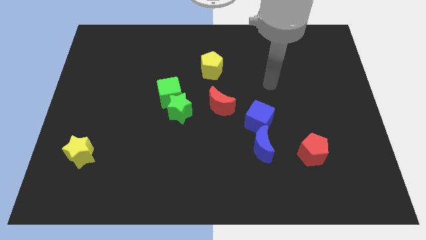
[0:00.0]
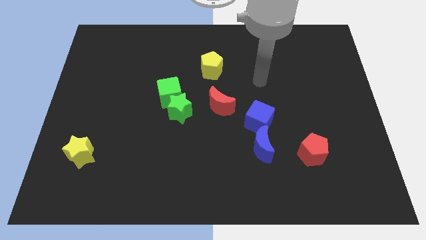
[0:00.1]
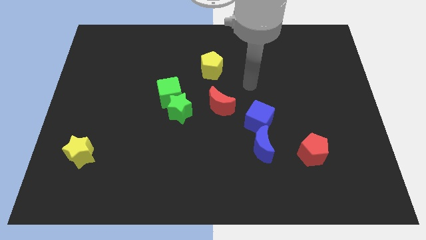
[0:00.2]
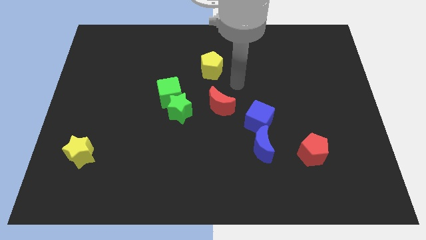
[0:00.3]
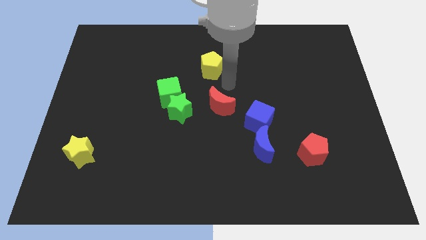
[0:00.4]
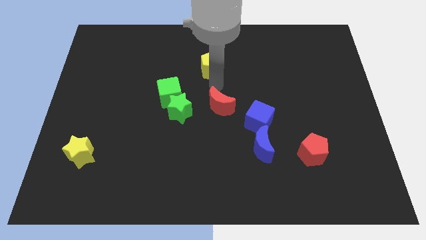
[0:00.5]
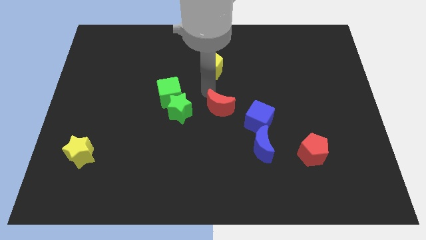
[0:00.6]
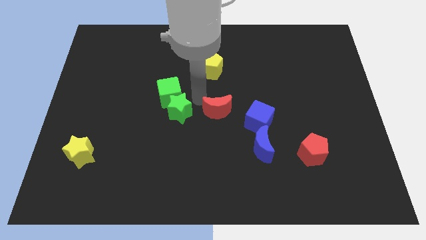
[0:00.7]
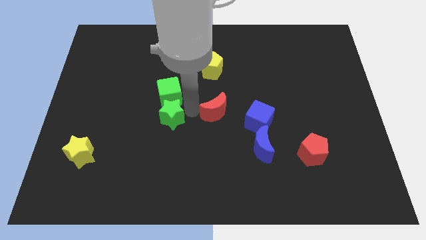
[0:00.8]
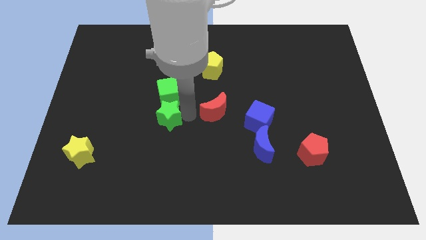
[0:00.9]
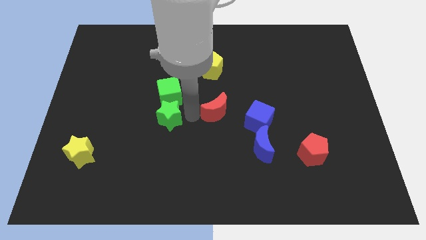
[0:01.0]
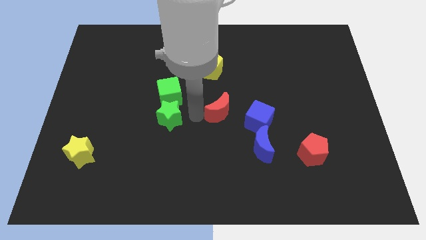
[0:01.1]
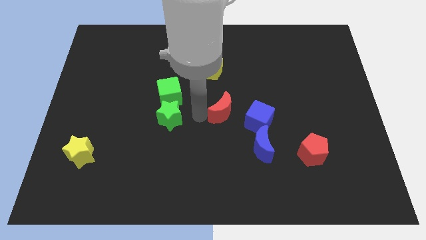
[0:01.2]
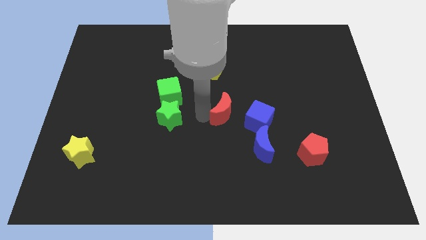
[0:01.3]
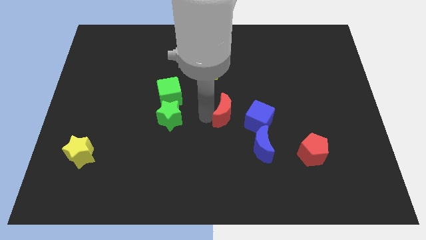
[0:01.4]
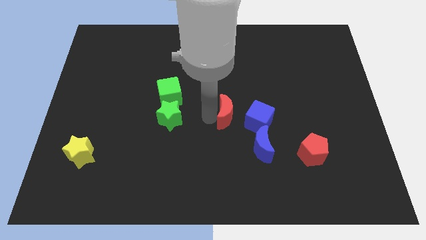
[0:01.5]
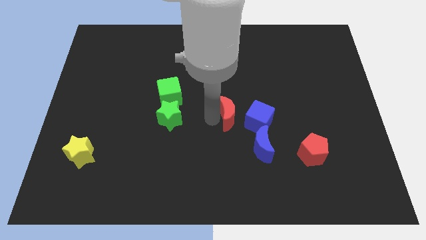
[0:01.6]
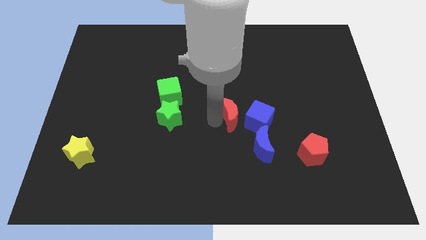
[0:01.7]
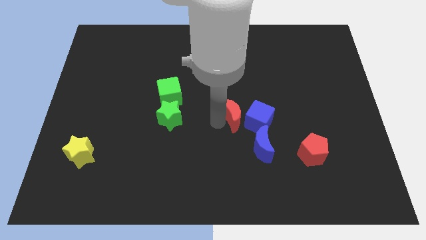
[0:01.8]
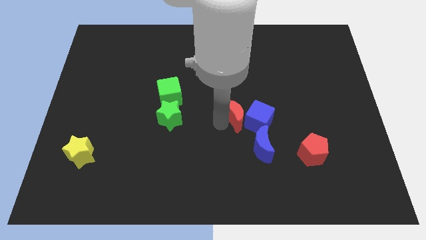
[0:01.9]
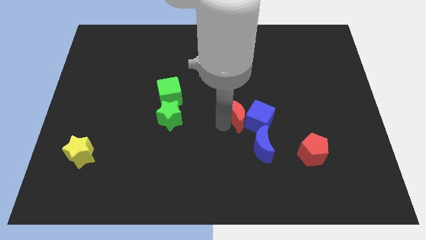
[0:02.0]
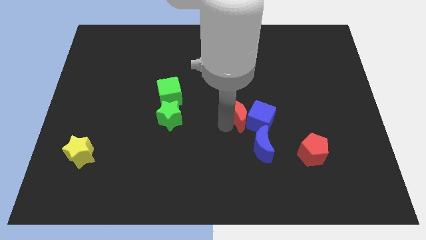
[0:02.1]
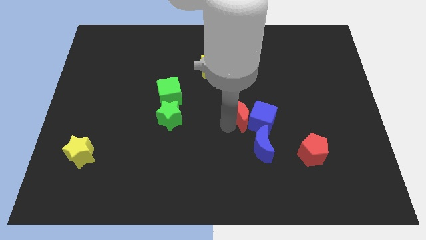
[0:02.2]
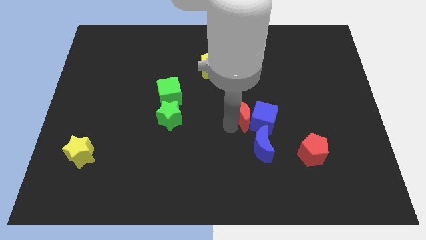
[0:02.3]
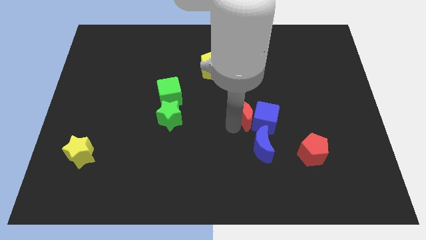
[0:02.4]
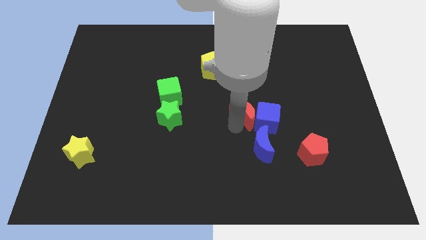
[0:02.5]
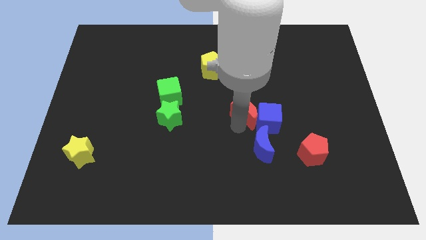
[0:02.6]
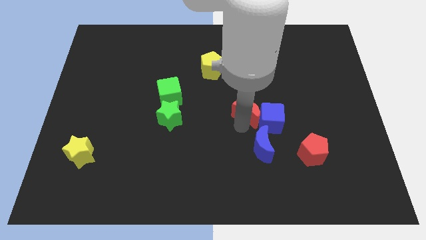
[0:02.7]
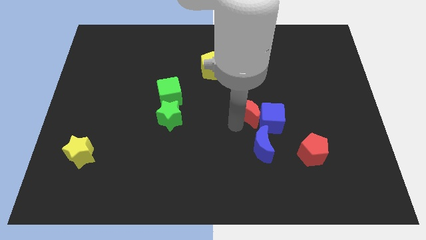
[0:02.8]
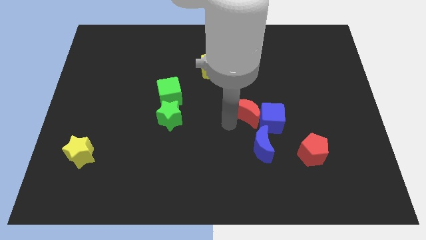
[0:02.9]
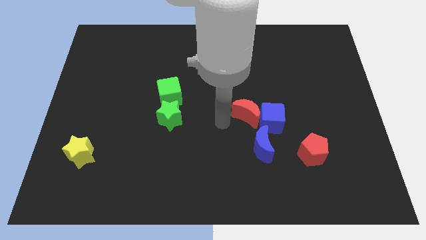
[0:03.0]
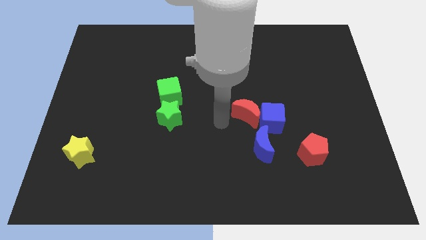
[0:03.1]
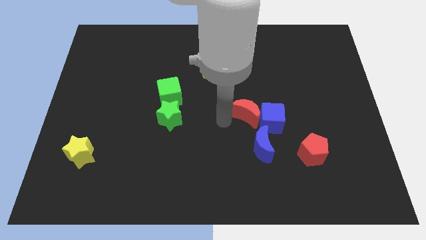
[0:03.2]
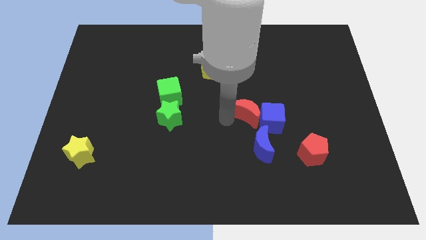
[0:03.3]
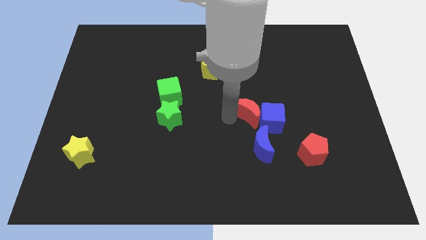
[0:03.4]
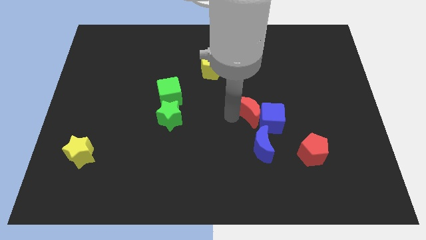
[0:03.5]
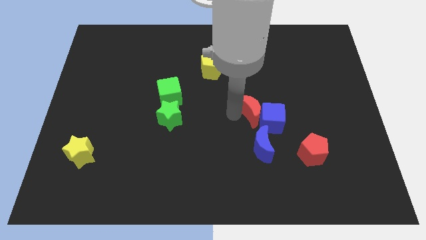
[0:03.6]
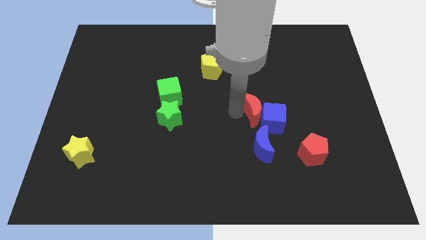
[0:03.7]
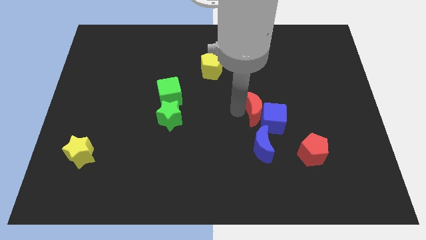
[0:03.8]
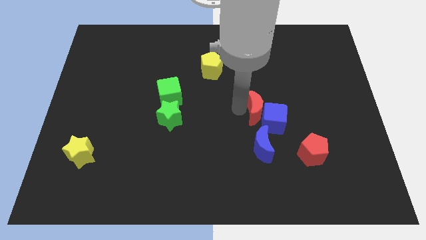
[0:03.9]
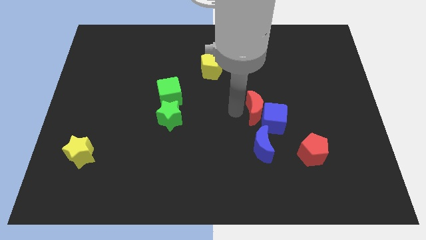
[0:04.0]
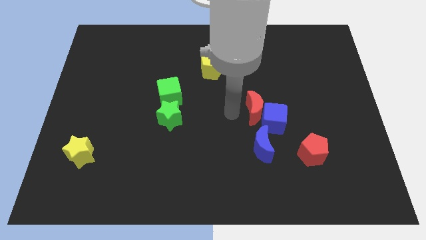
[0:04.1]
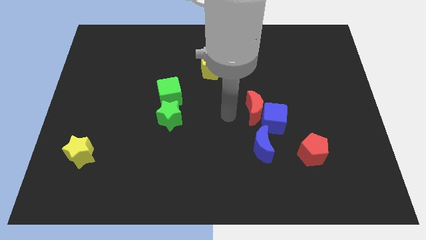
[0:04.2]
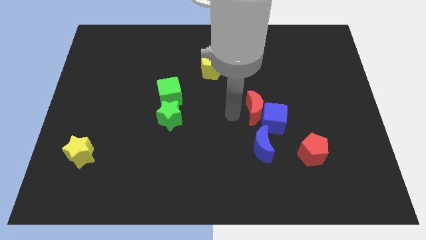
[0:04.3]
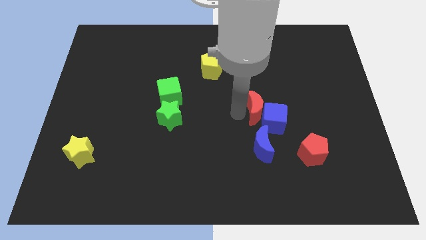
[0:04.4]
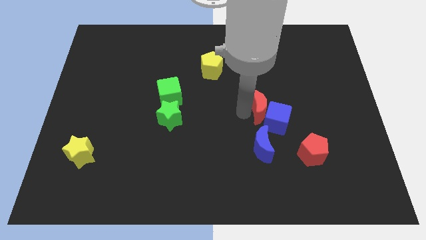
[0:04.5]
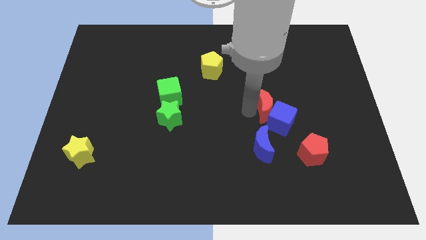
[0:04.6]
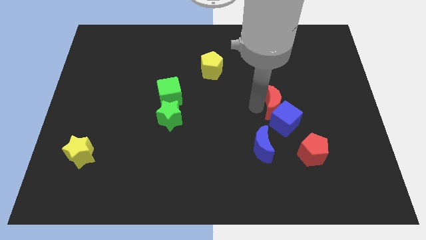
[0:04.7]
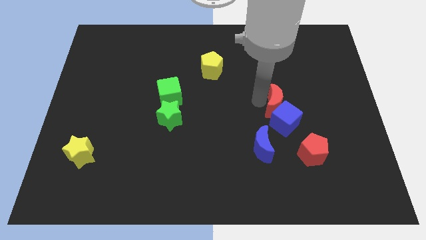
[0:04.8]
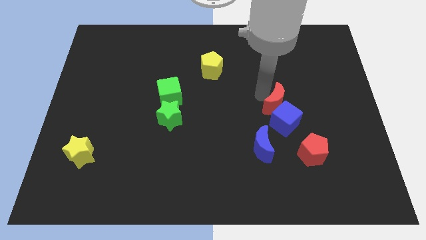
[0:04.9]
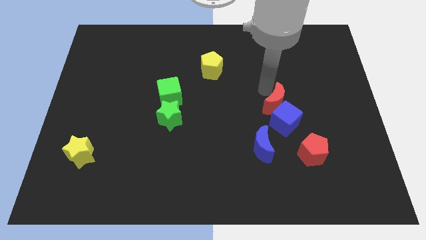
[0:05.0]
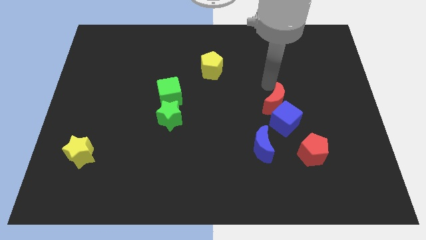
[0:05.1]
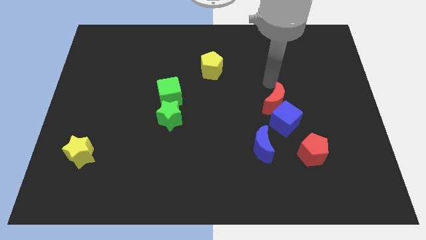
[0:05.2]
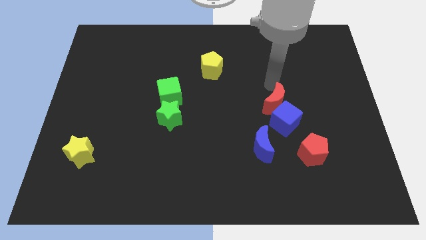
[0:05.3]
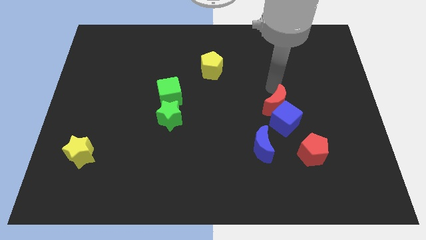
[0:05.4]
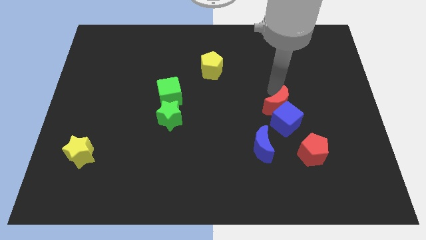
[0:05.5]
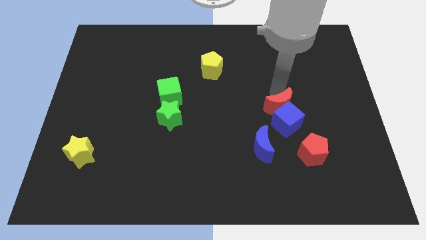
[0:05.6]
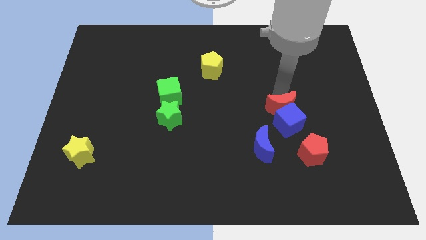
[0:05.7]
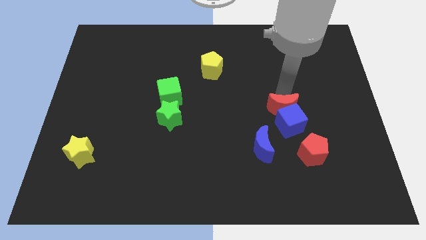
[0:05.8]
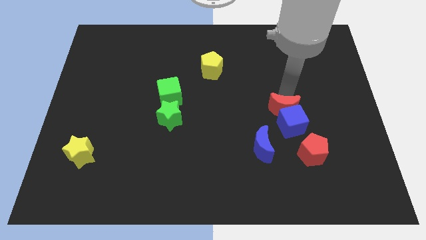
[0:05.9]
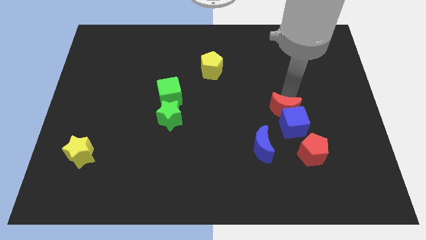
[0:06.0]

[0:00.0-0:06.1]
push the red moon down and to the right diagonally somewhat

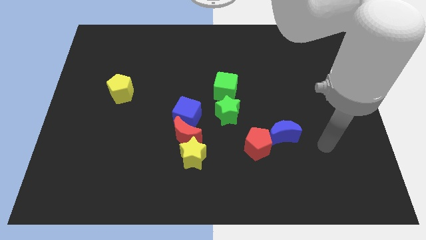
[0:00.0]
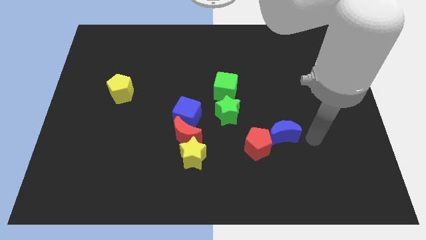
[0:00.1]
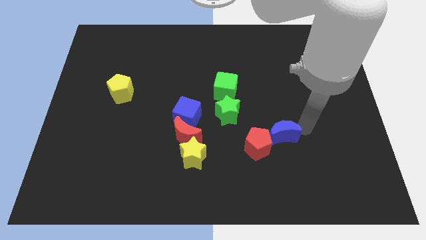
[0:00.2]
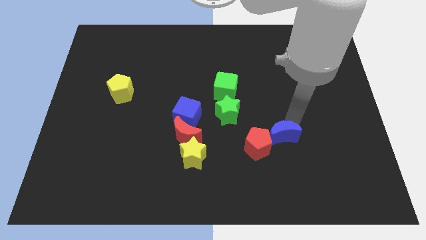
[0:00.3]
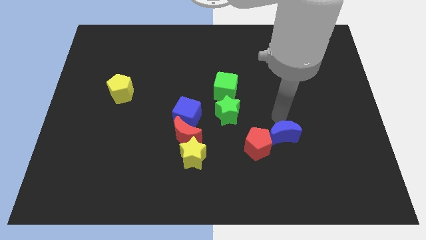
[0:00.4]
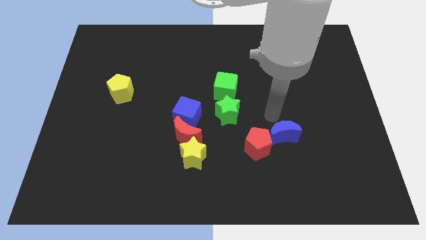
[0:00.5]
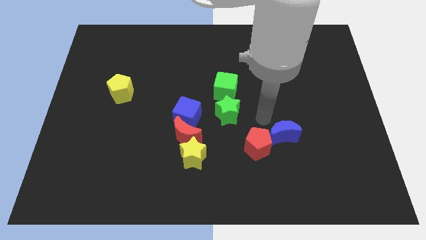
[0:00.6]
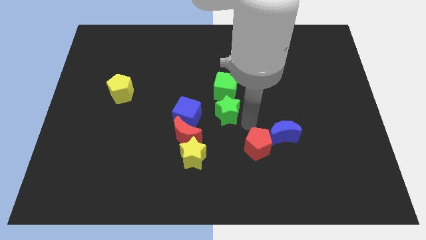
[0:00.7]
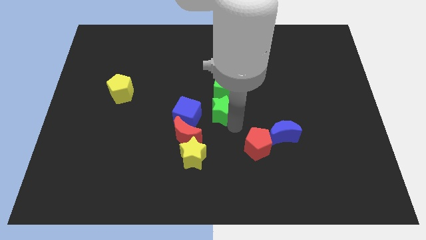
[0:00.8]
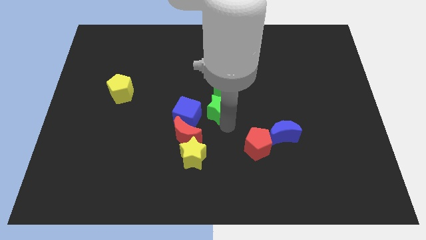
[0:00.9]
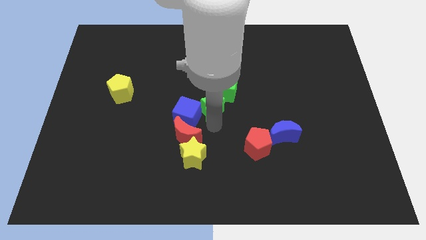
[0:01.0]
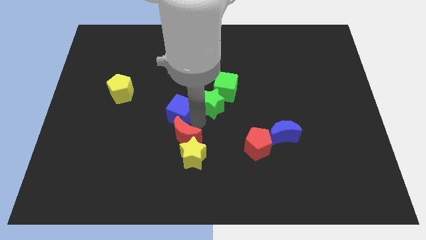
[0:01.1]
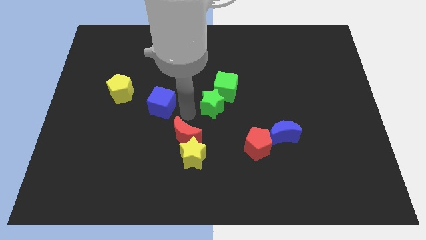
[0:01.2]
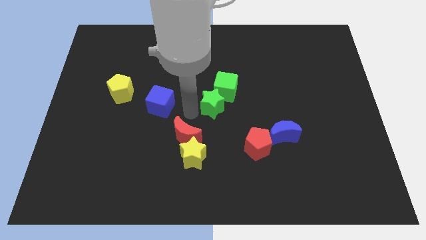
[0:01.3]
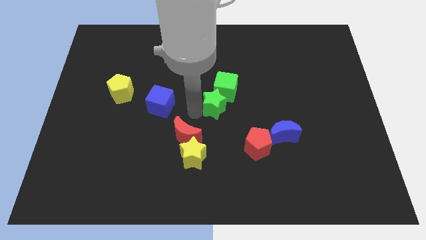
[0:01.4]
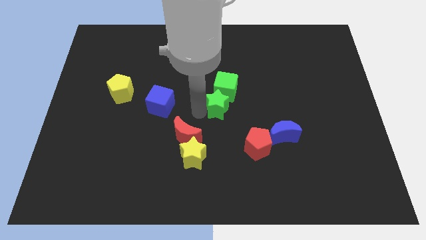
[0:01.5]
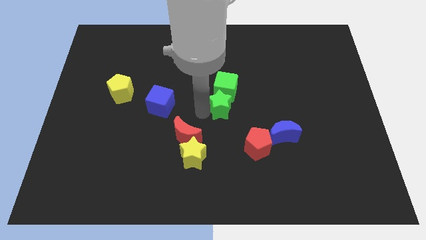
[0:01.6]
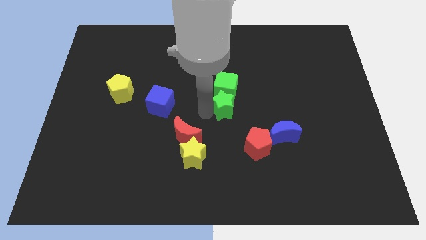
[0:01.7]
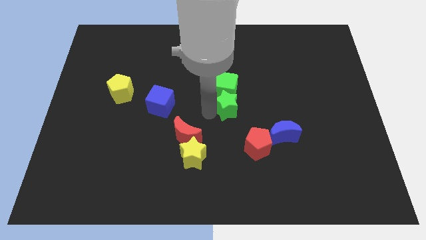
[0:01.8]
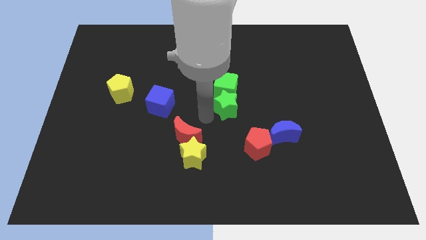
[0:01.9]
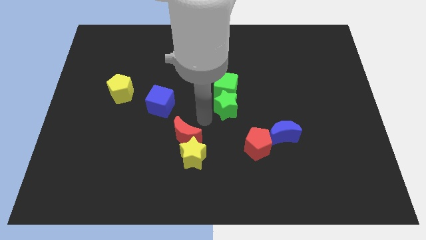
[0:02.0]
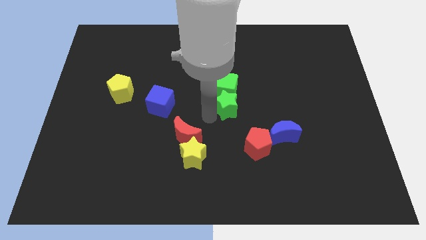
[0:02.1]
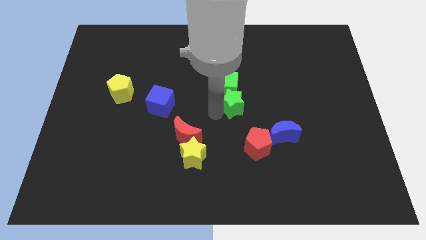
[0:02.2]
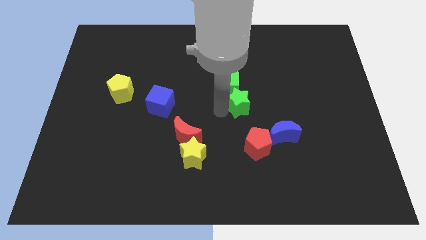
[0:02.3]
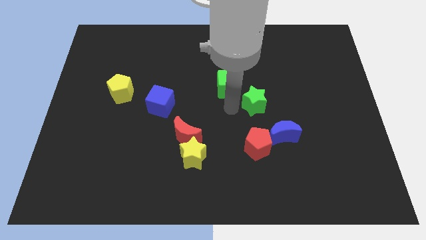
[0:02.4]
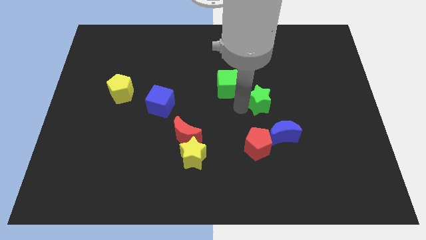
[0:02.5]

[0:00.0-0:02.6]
move the green star up and then right slightly
